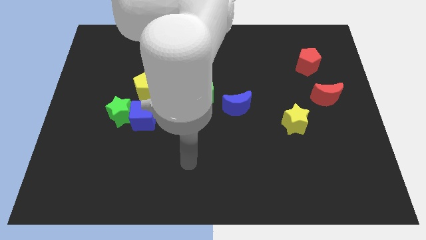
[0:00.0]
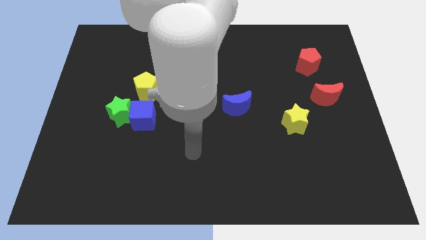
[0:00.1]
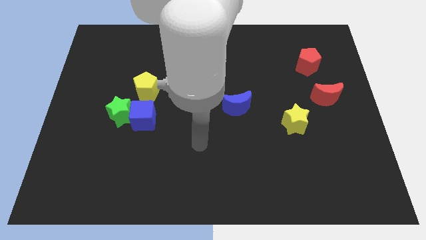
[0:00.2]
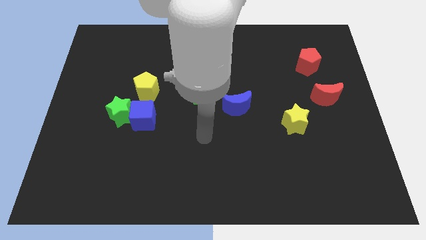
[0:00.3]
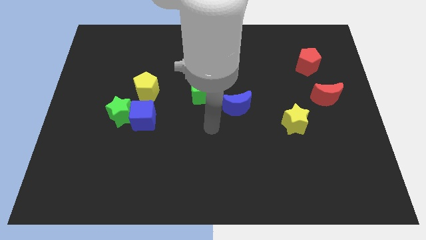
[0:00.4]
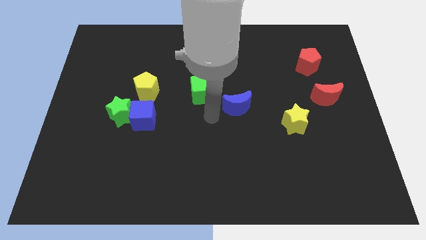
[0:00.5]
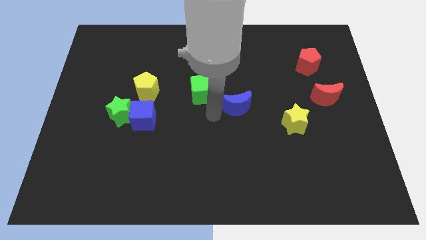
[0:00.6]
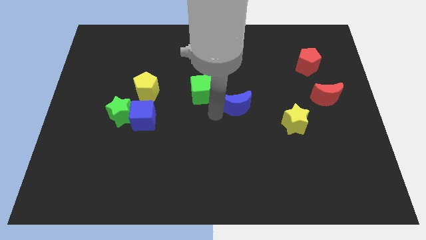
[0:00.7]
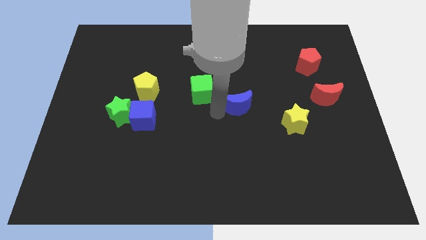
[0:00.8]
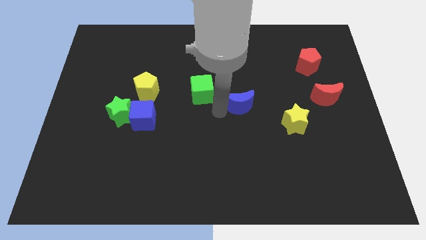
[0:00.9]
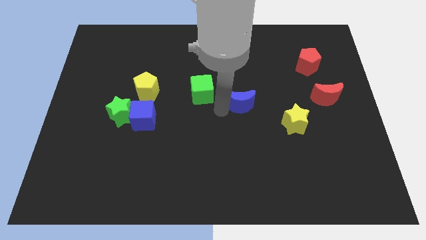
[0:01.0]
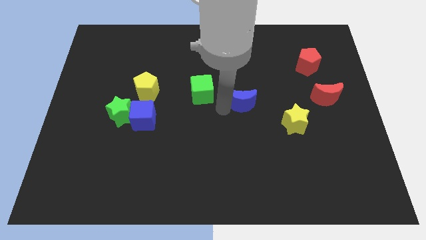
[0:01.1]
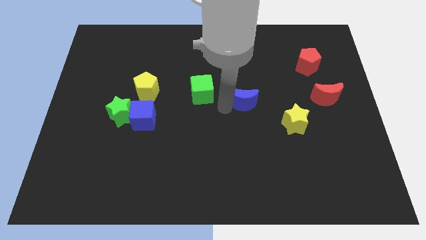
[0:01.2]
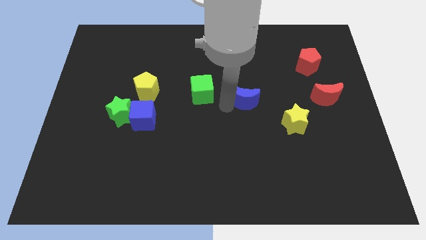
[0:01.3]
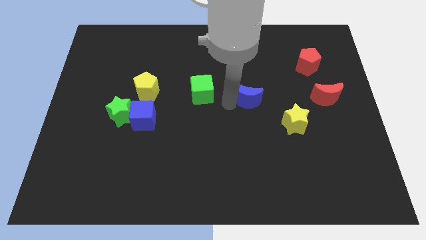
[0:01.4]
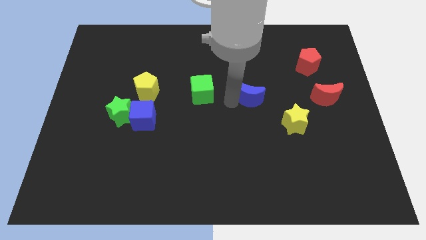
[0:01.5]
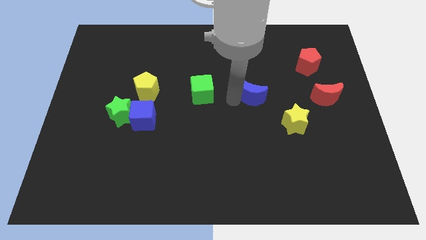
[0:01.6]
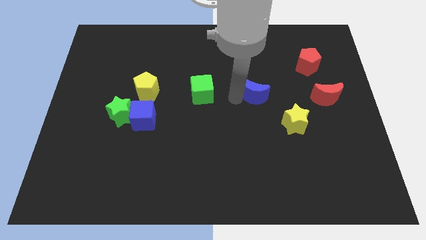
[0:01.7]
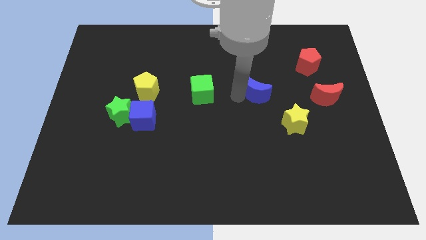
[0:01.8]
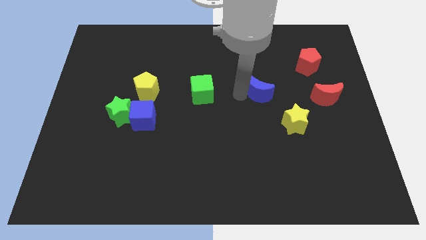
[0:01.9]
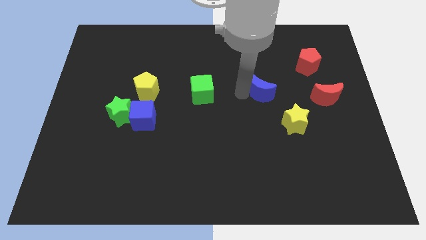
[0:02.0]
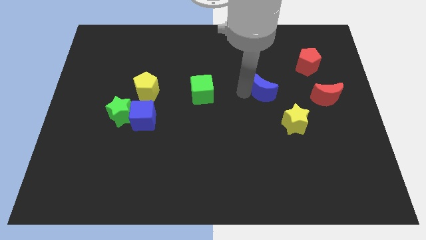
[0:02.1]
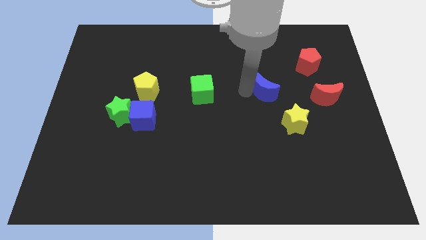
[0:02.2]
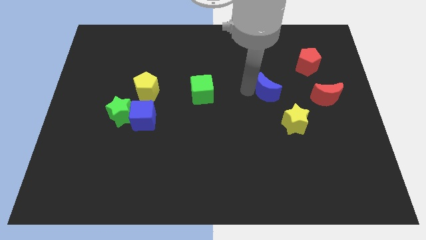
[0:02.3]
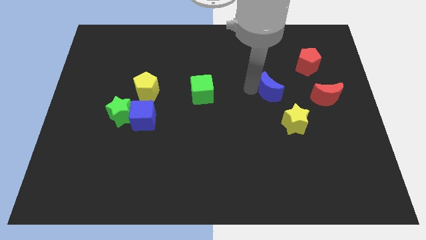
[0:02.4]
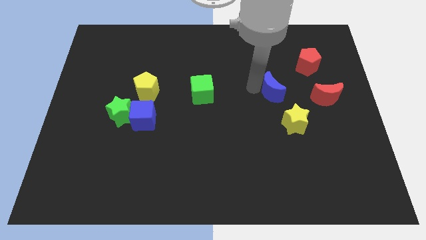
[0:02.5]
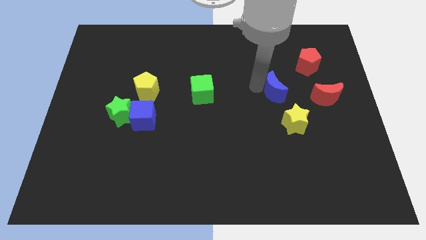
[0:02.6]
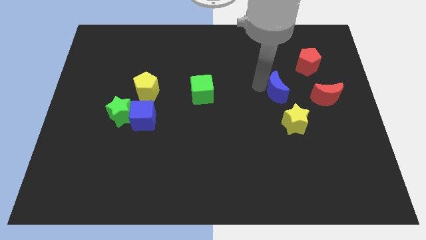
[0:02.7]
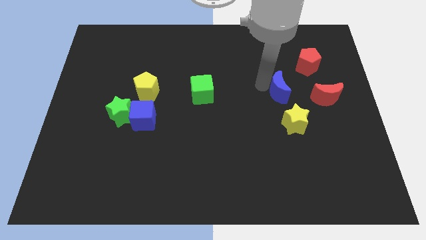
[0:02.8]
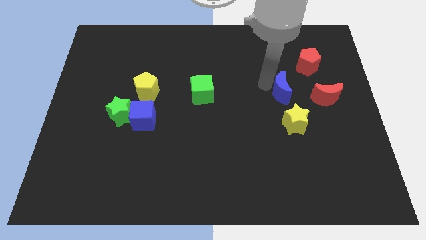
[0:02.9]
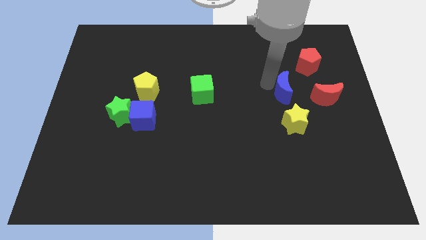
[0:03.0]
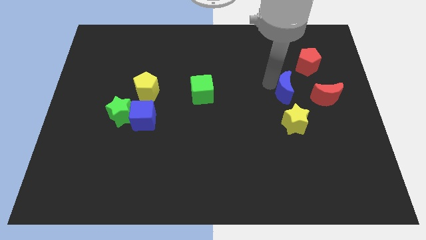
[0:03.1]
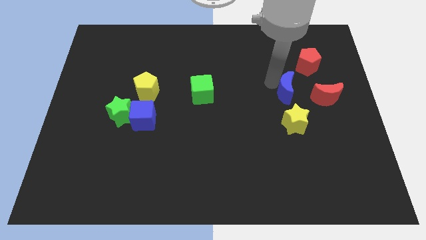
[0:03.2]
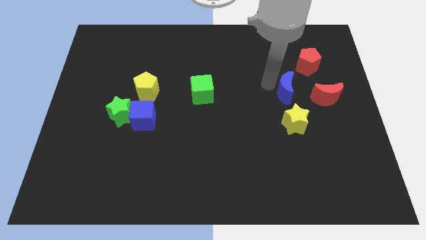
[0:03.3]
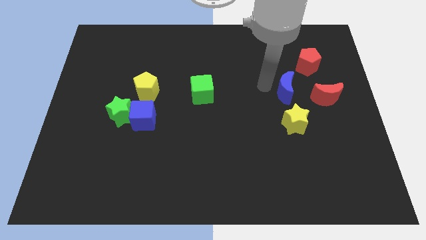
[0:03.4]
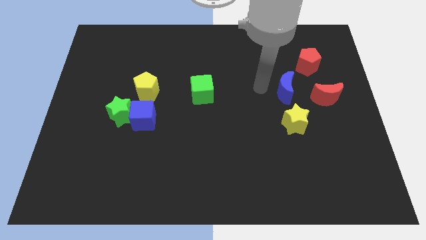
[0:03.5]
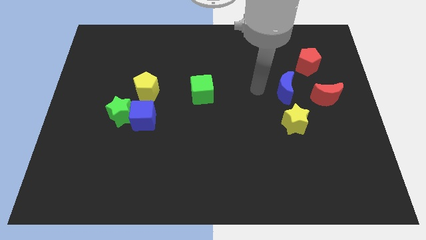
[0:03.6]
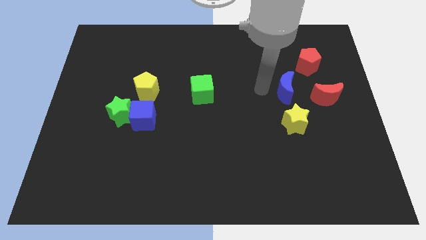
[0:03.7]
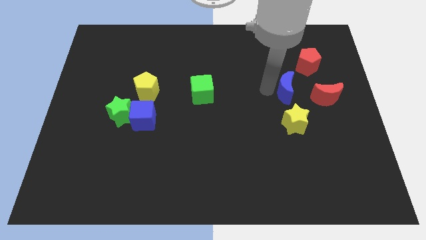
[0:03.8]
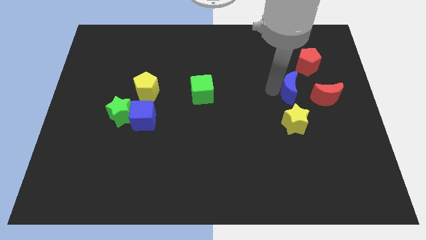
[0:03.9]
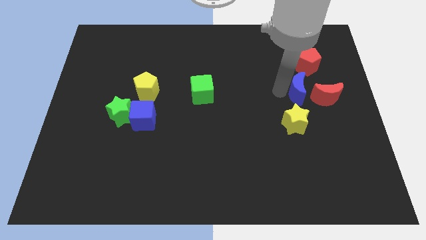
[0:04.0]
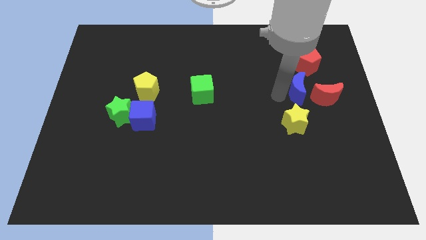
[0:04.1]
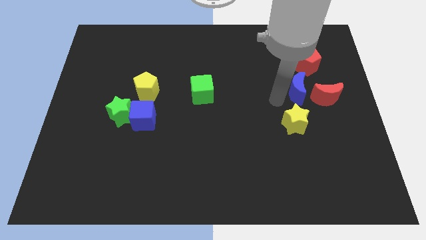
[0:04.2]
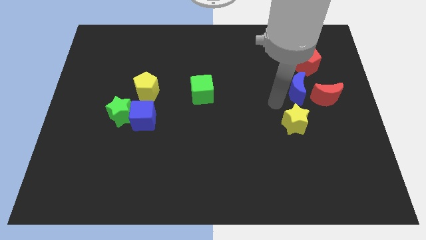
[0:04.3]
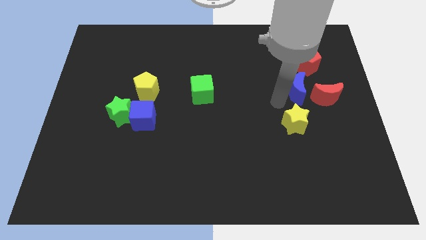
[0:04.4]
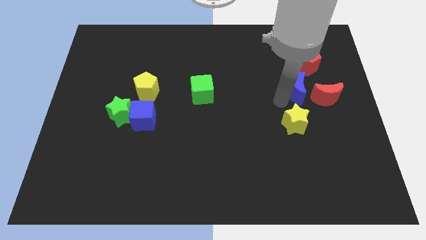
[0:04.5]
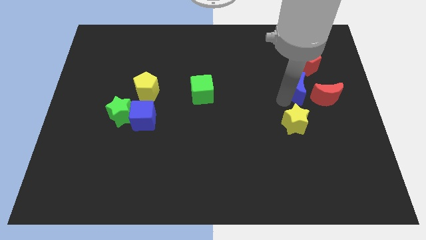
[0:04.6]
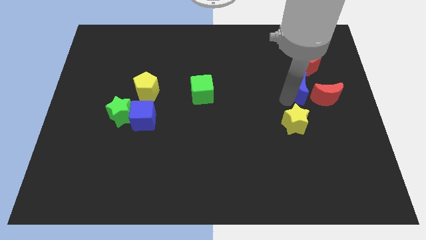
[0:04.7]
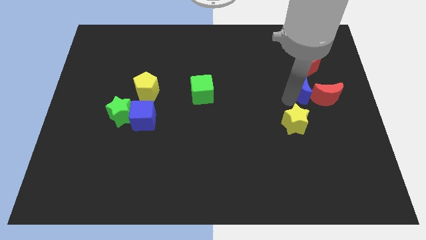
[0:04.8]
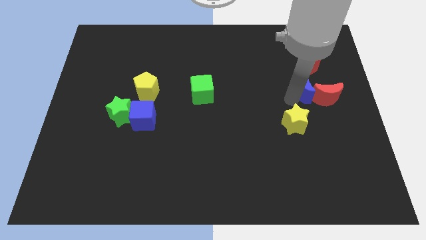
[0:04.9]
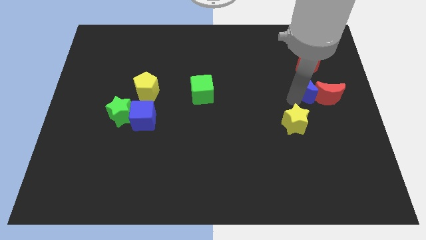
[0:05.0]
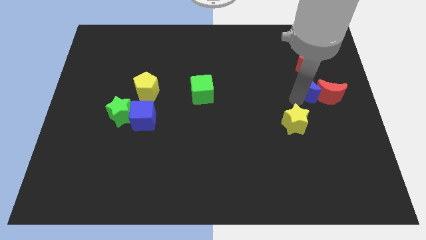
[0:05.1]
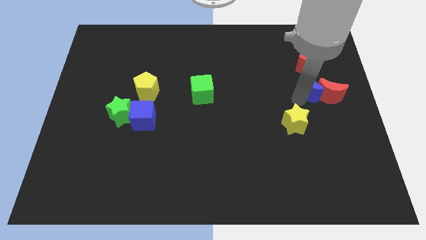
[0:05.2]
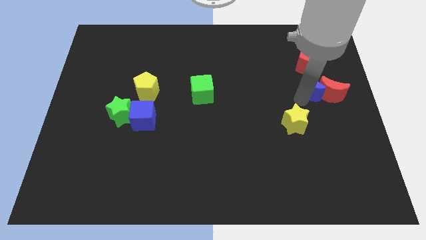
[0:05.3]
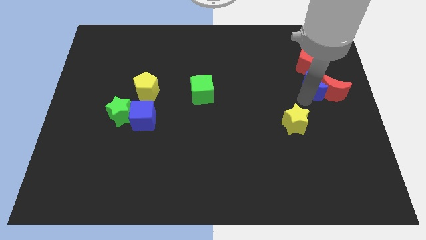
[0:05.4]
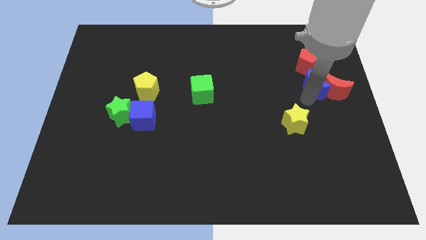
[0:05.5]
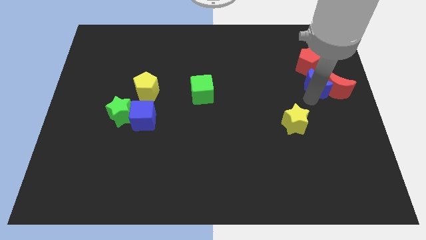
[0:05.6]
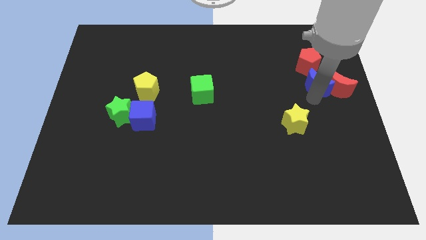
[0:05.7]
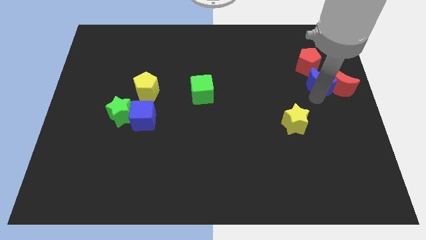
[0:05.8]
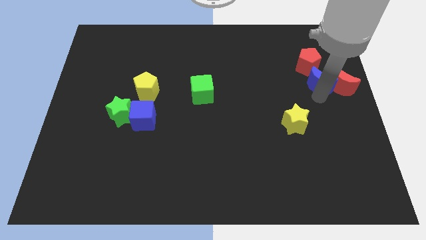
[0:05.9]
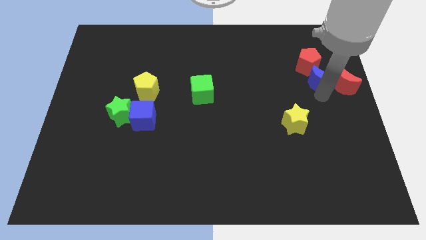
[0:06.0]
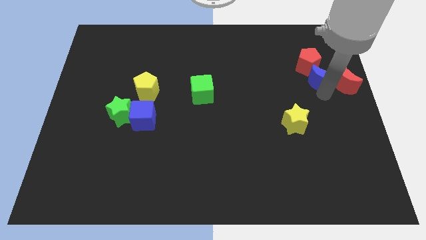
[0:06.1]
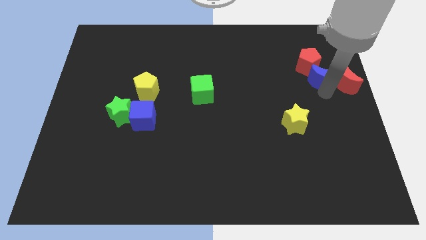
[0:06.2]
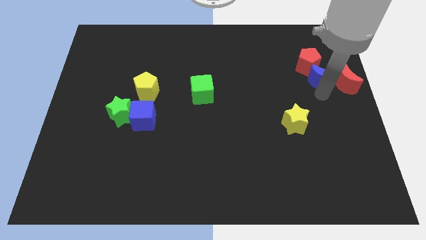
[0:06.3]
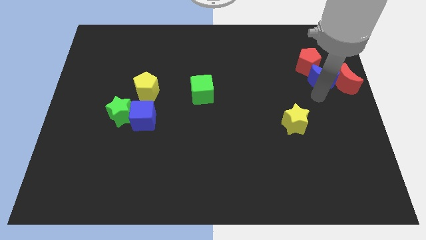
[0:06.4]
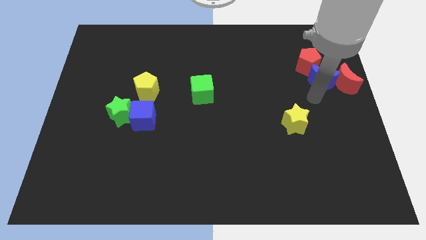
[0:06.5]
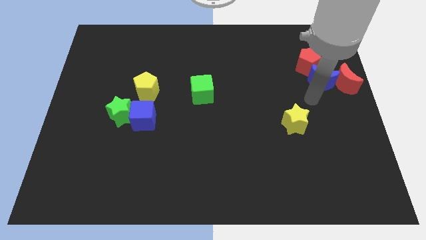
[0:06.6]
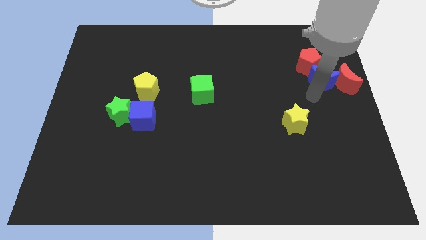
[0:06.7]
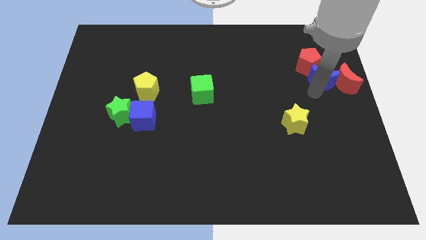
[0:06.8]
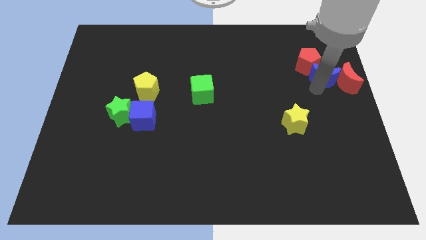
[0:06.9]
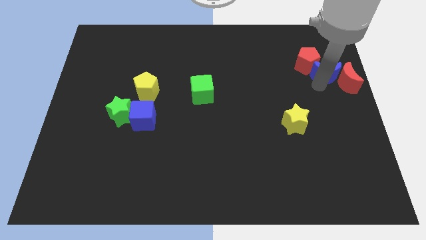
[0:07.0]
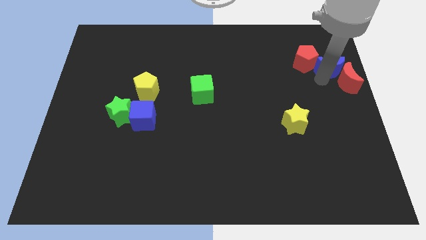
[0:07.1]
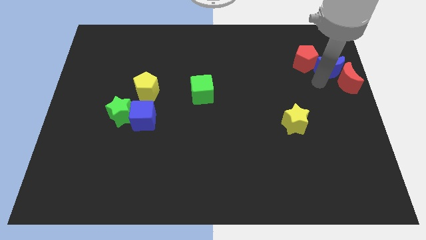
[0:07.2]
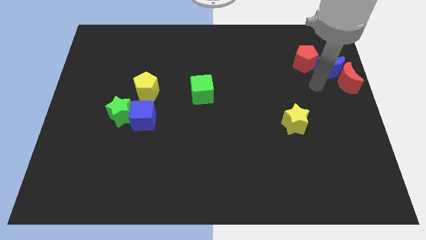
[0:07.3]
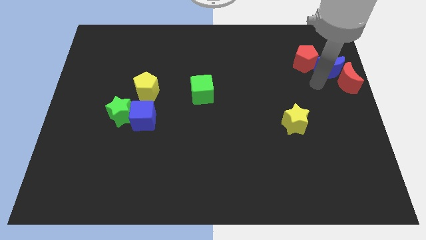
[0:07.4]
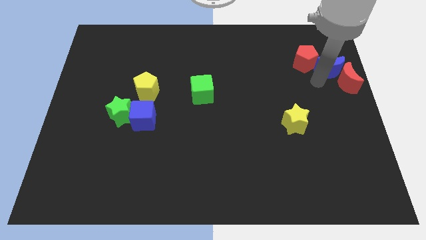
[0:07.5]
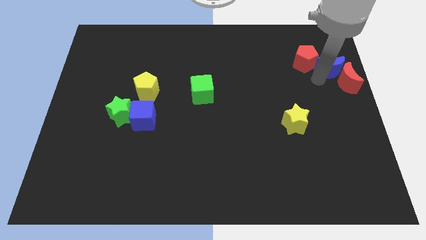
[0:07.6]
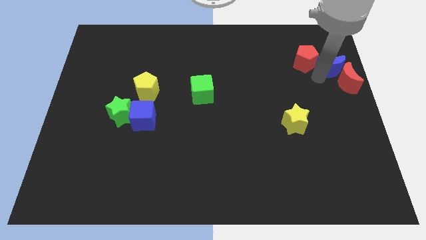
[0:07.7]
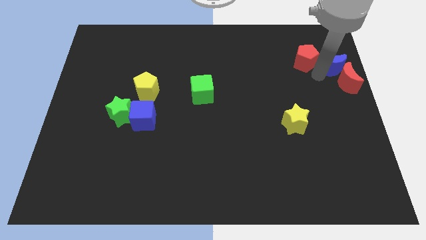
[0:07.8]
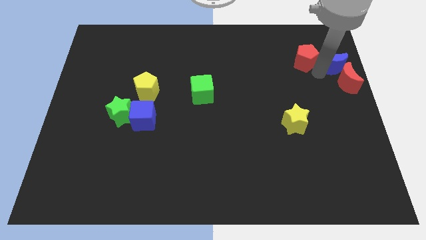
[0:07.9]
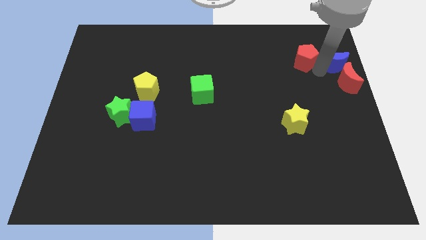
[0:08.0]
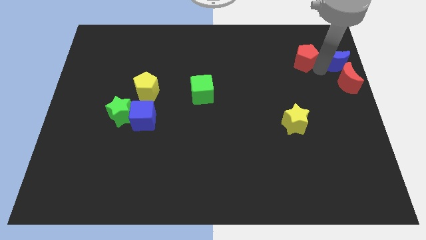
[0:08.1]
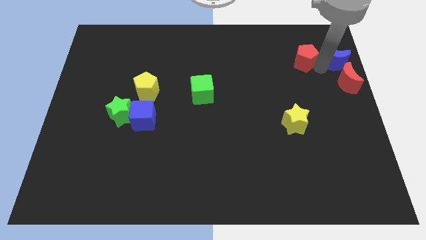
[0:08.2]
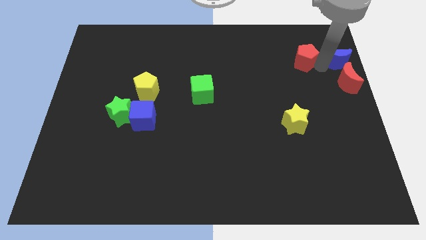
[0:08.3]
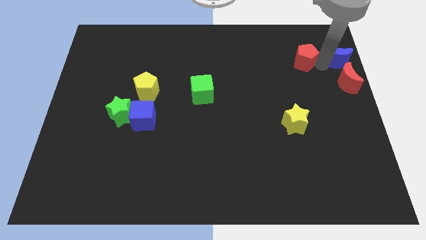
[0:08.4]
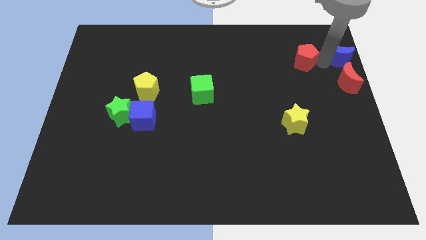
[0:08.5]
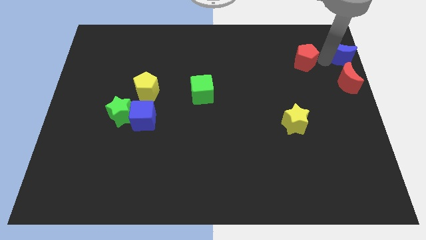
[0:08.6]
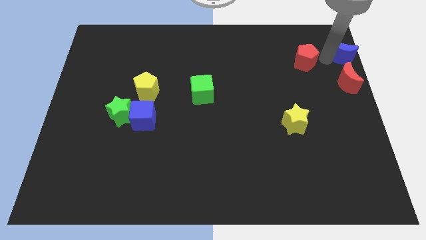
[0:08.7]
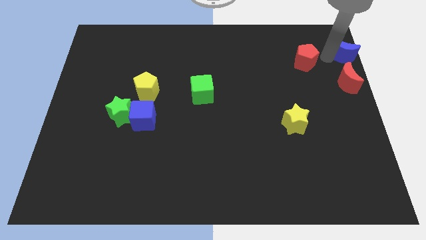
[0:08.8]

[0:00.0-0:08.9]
push the blue moon to the top right of the board
